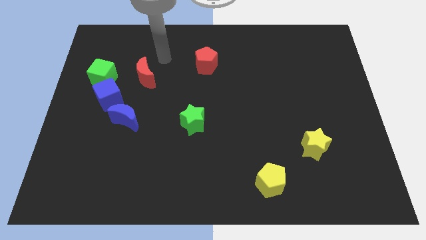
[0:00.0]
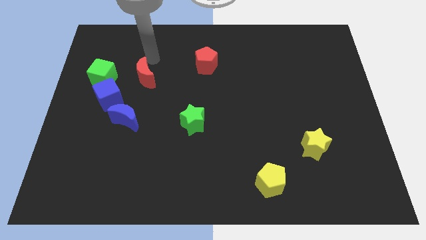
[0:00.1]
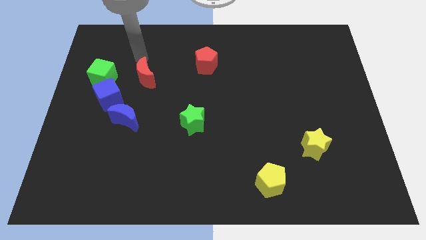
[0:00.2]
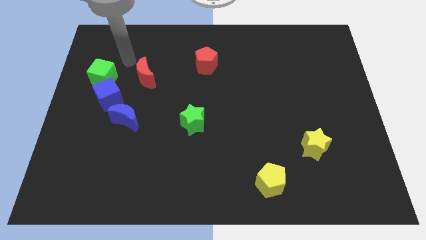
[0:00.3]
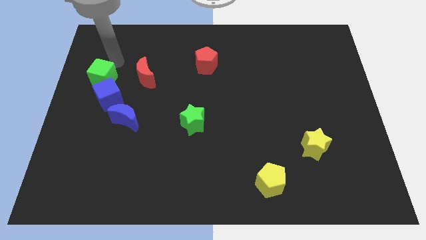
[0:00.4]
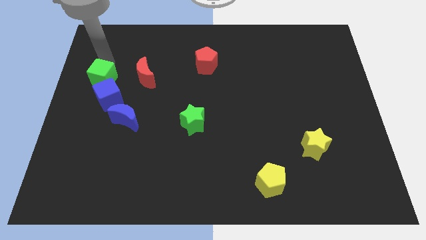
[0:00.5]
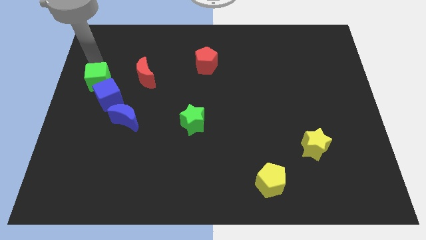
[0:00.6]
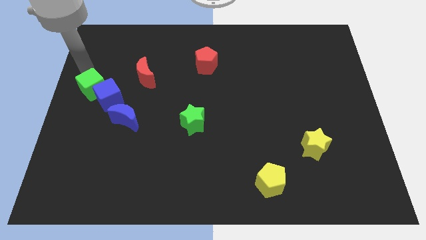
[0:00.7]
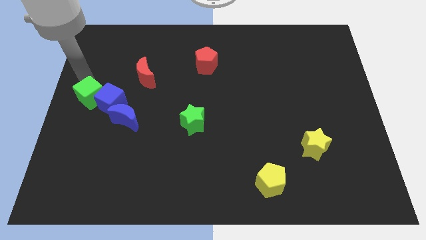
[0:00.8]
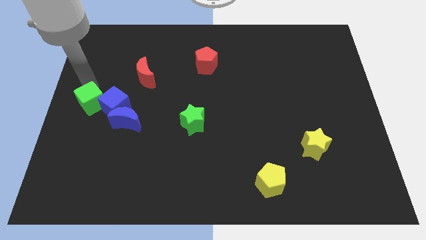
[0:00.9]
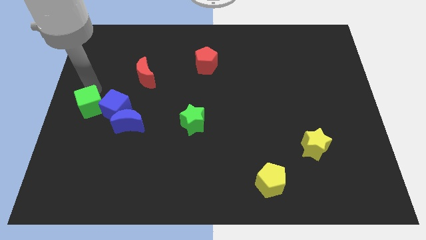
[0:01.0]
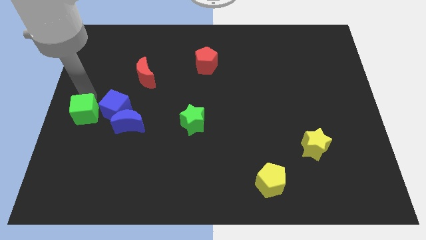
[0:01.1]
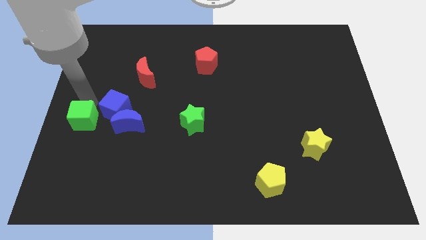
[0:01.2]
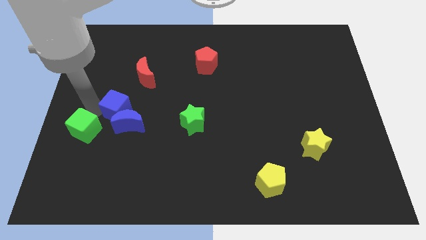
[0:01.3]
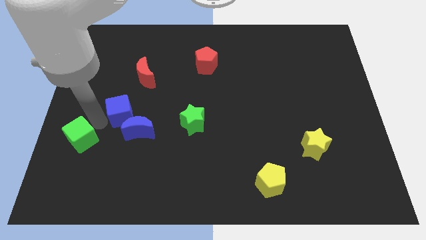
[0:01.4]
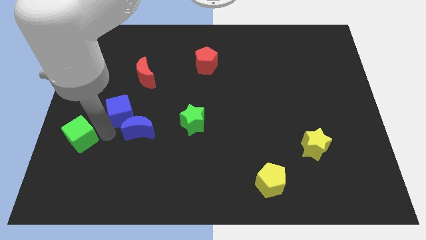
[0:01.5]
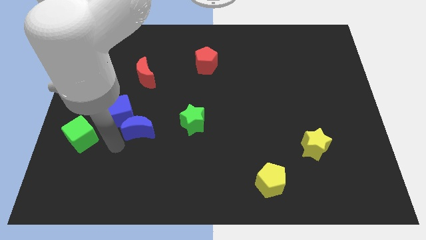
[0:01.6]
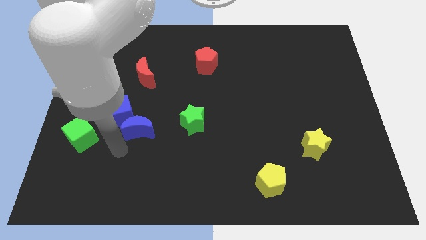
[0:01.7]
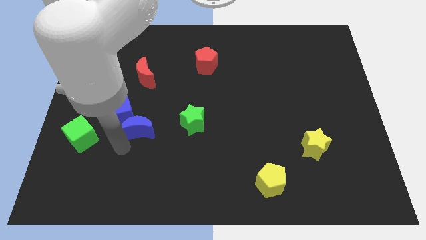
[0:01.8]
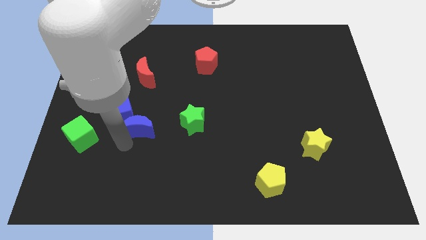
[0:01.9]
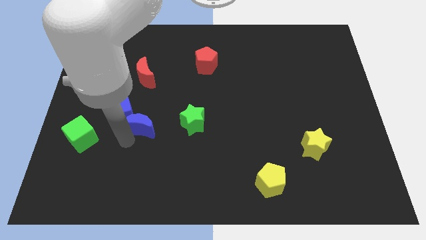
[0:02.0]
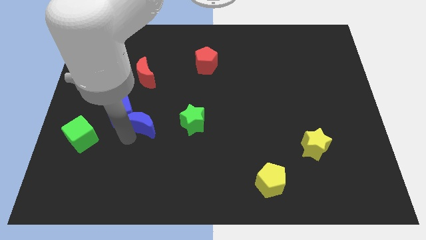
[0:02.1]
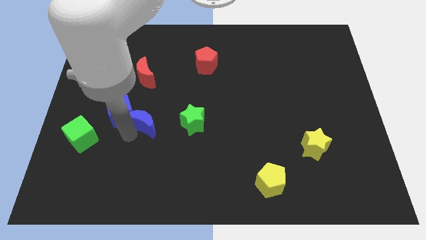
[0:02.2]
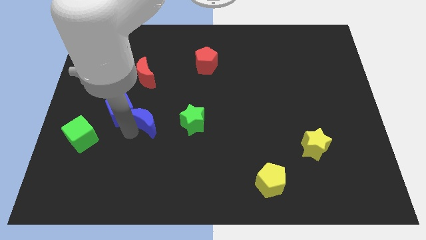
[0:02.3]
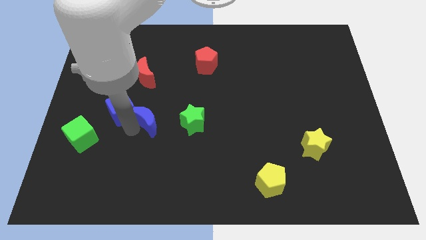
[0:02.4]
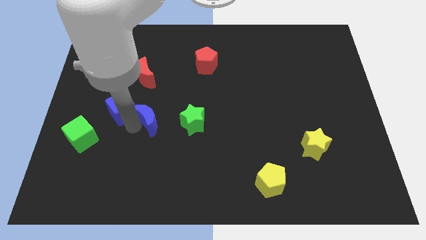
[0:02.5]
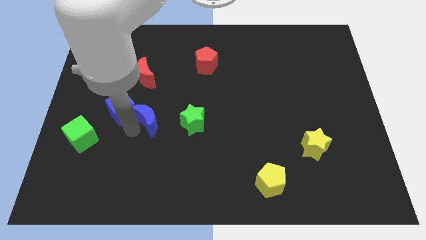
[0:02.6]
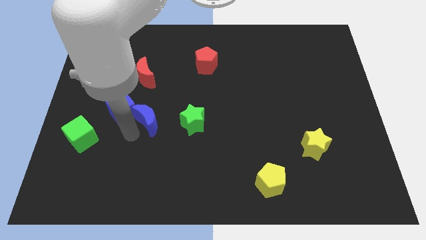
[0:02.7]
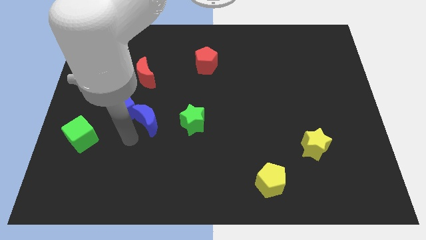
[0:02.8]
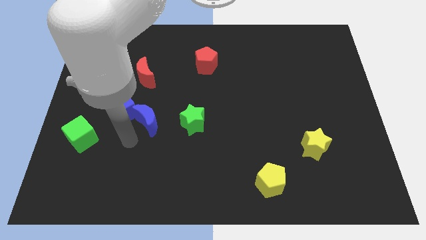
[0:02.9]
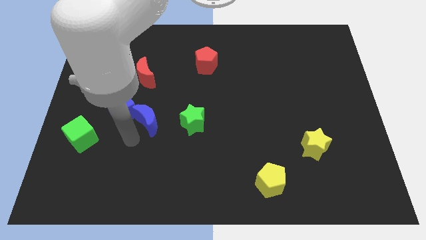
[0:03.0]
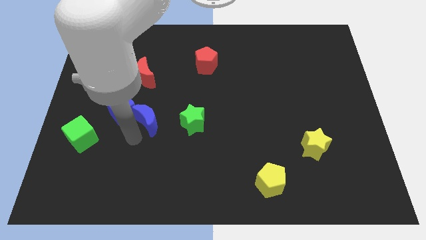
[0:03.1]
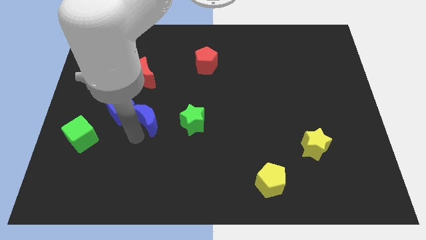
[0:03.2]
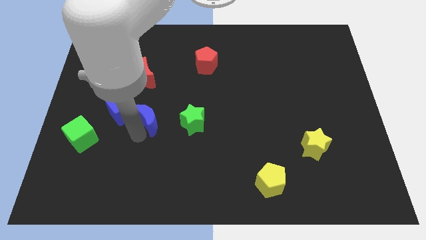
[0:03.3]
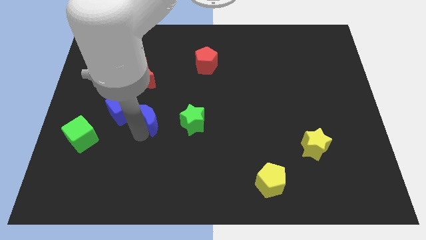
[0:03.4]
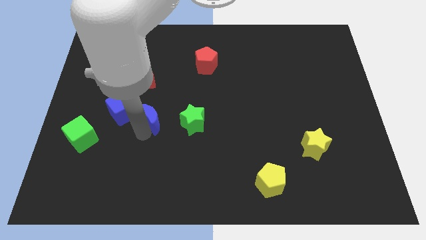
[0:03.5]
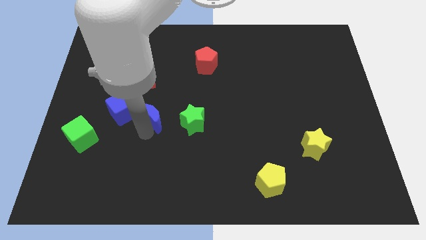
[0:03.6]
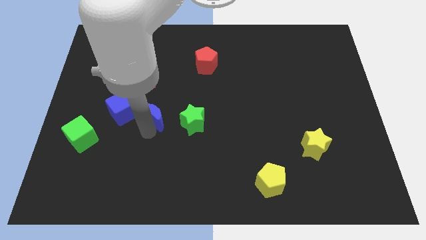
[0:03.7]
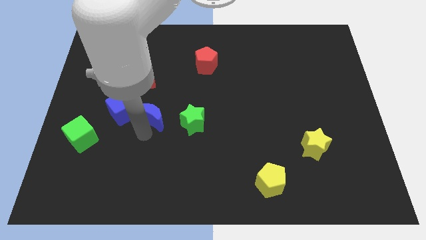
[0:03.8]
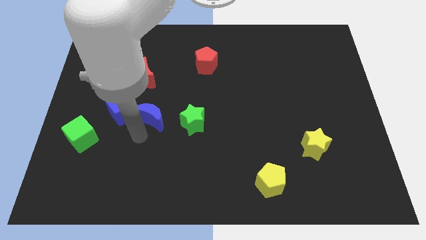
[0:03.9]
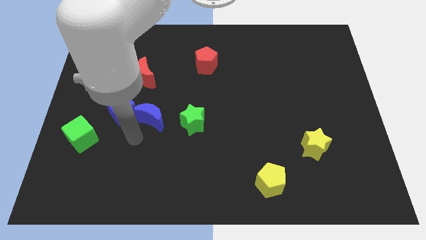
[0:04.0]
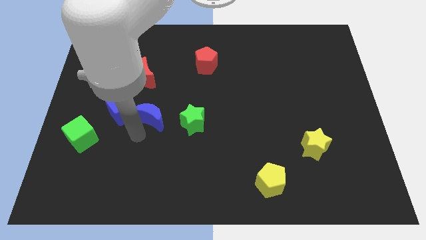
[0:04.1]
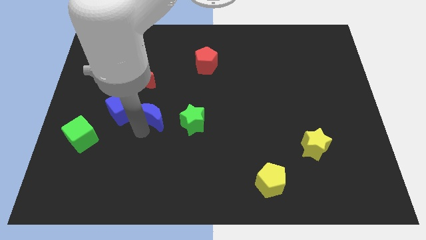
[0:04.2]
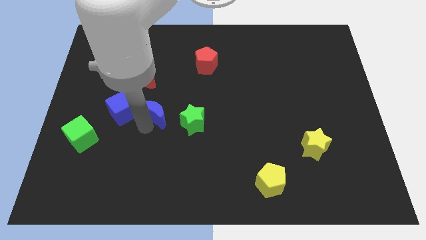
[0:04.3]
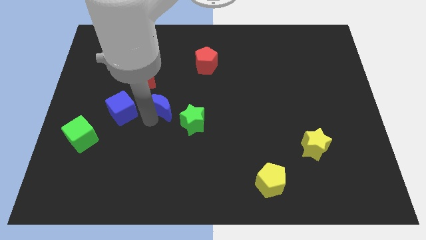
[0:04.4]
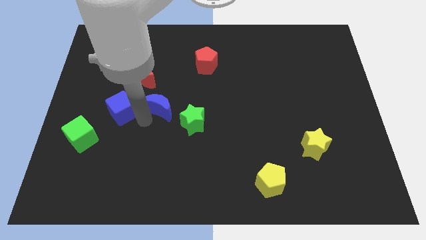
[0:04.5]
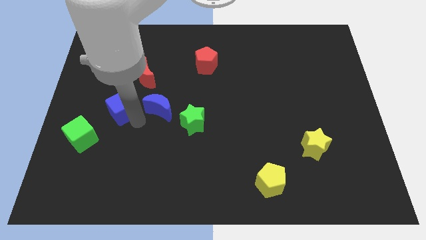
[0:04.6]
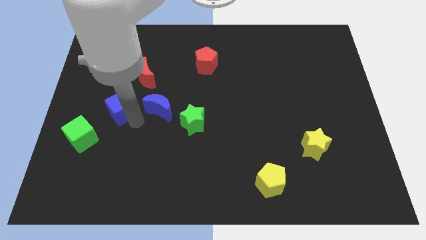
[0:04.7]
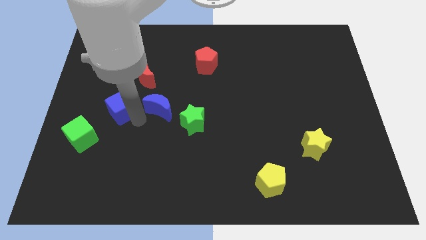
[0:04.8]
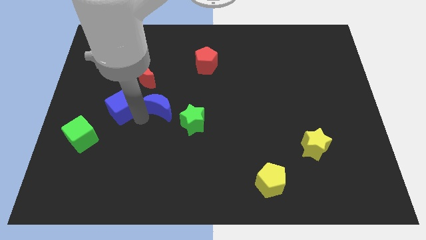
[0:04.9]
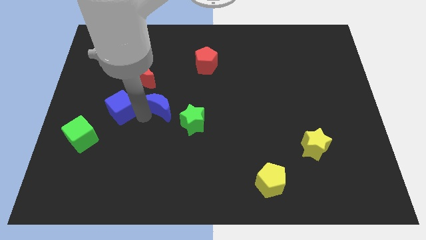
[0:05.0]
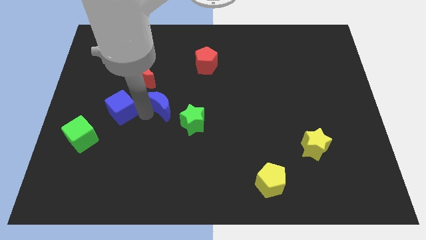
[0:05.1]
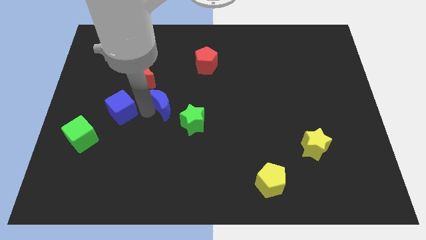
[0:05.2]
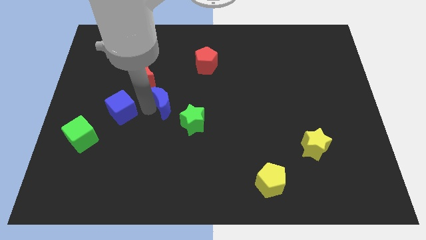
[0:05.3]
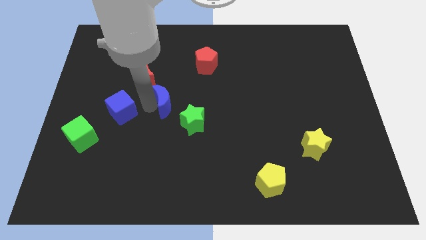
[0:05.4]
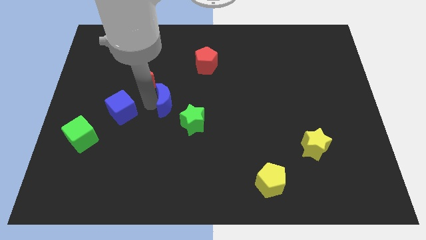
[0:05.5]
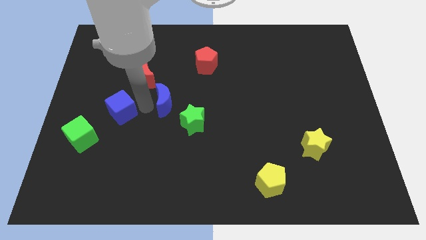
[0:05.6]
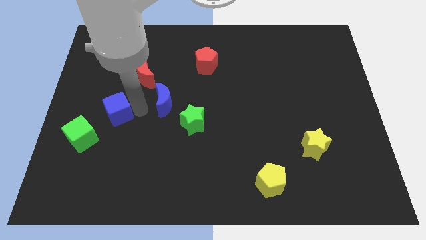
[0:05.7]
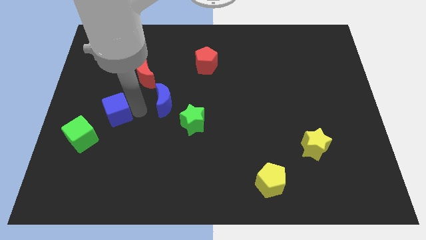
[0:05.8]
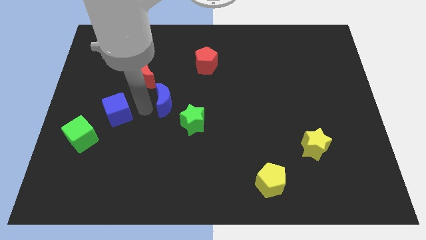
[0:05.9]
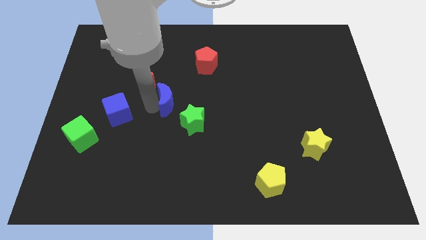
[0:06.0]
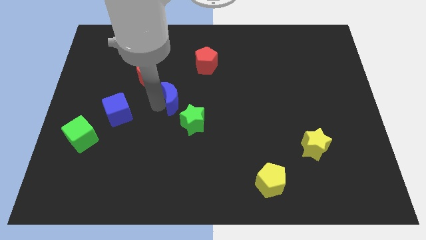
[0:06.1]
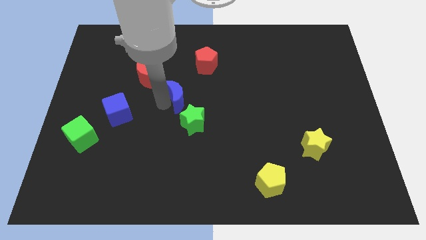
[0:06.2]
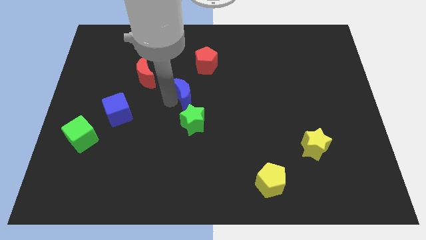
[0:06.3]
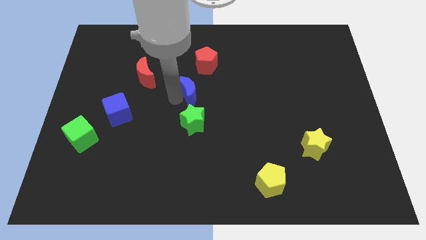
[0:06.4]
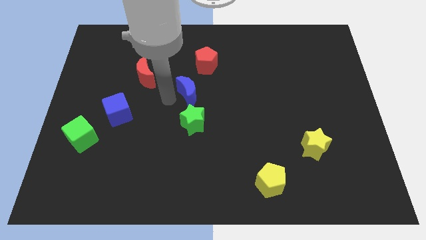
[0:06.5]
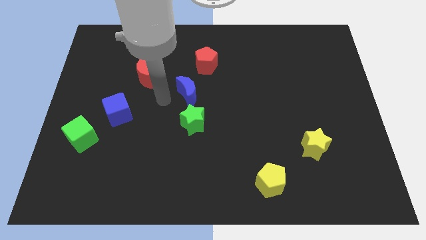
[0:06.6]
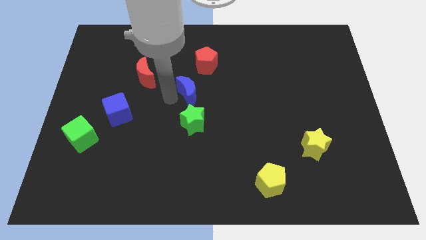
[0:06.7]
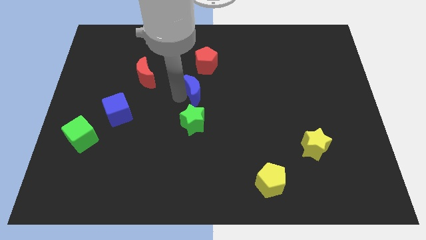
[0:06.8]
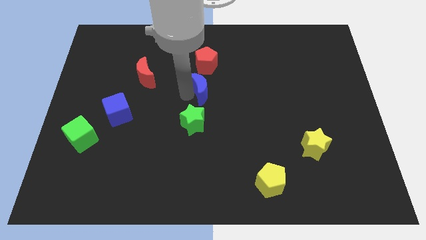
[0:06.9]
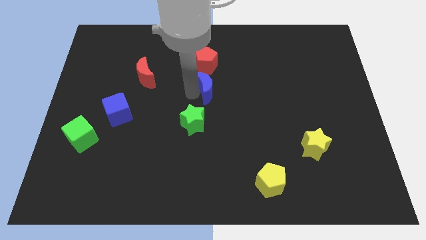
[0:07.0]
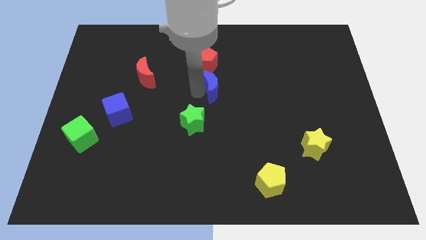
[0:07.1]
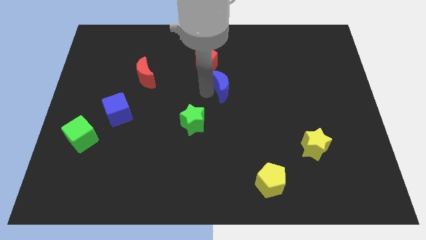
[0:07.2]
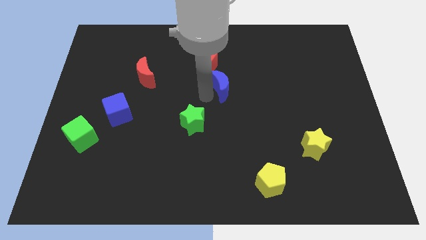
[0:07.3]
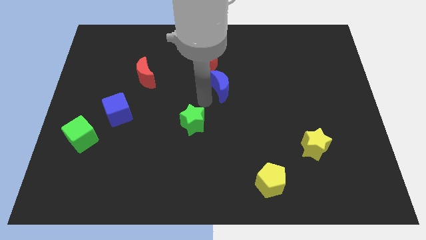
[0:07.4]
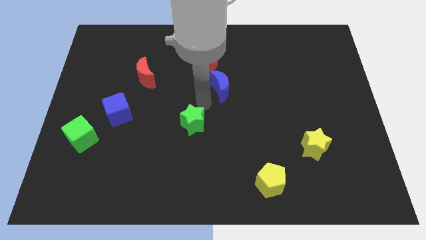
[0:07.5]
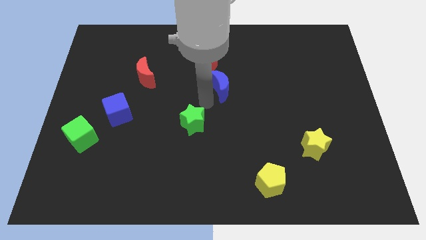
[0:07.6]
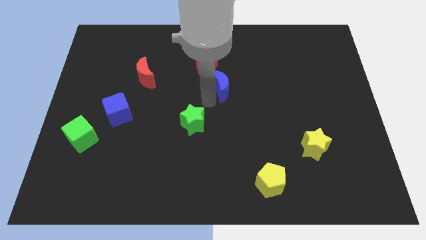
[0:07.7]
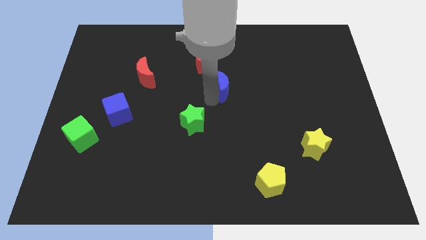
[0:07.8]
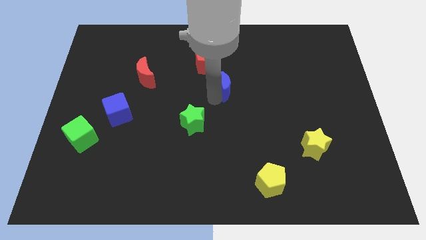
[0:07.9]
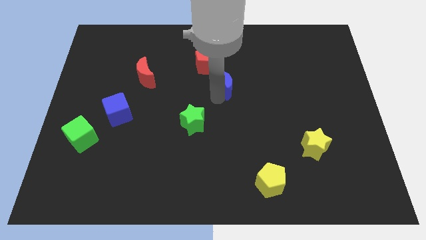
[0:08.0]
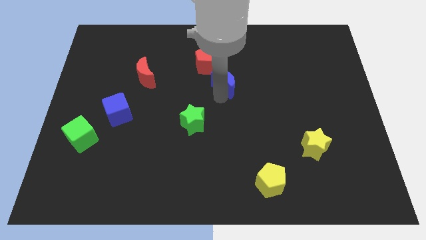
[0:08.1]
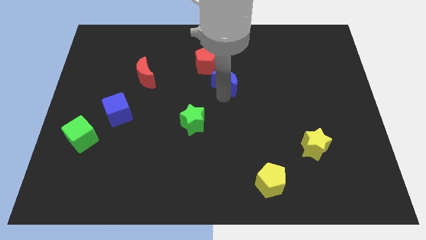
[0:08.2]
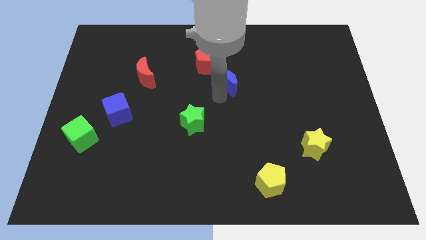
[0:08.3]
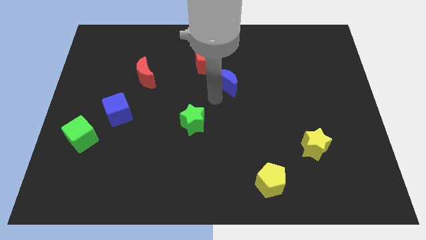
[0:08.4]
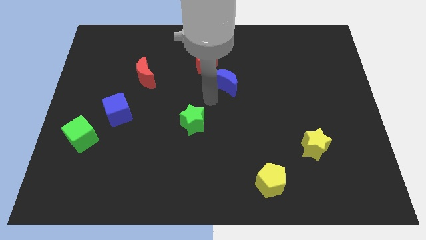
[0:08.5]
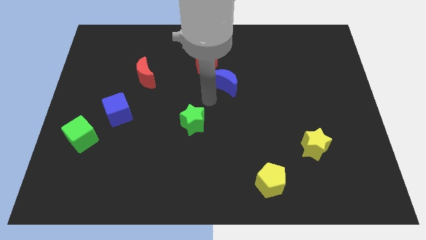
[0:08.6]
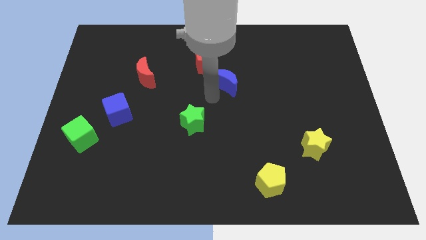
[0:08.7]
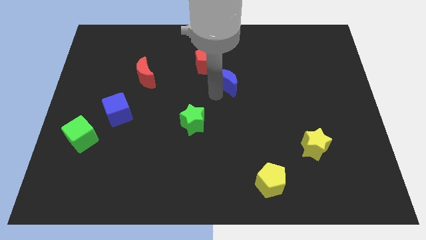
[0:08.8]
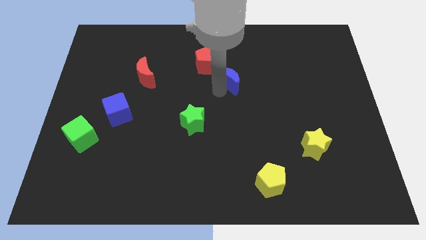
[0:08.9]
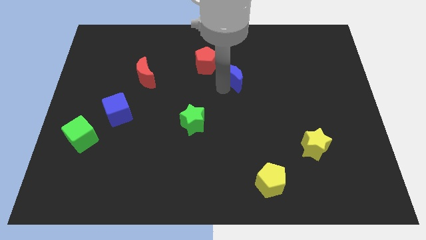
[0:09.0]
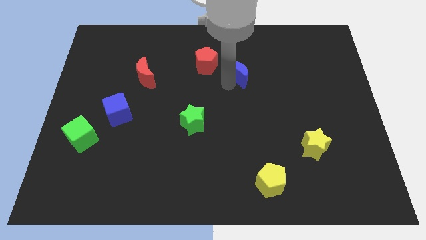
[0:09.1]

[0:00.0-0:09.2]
slide the blue moon to the right side of the red pentagon
